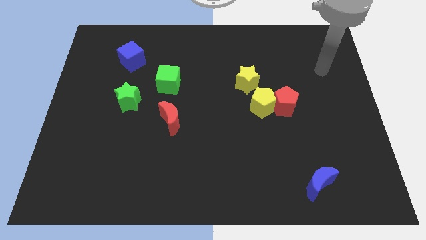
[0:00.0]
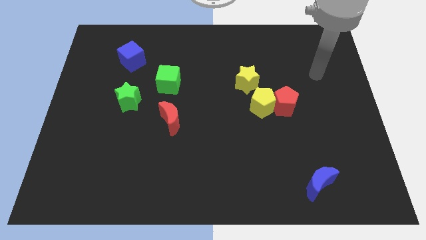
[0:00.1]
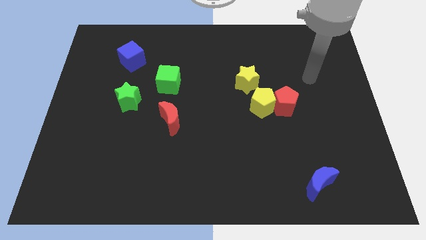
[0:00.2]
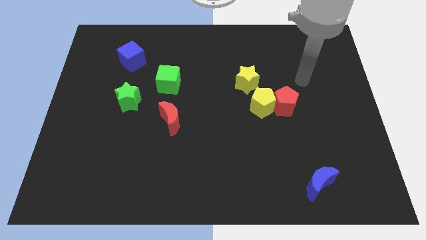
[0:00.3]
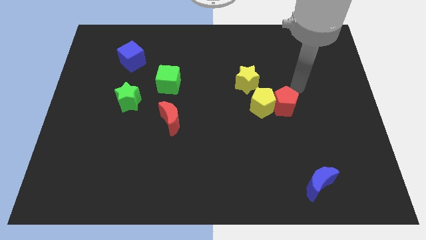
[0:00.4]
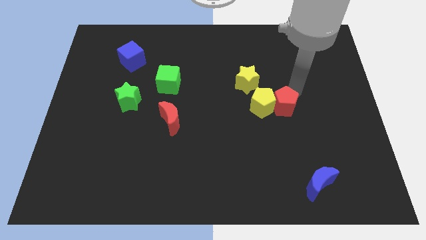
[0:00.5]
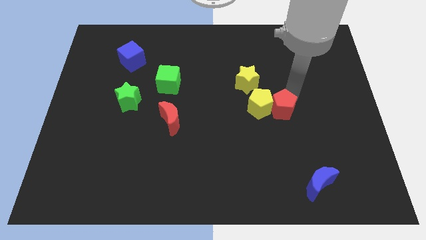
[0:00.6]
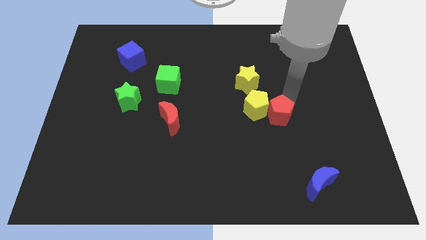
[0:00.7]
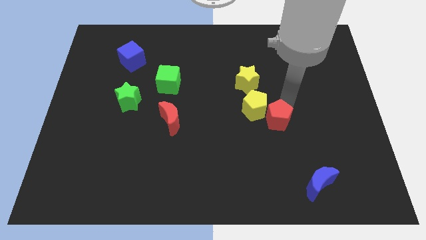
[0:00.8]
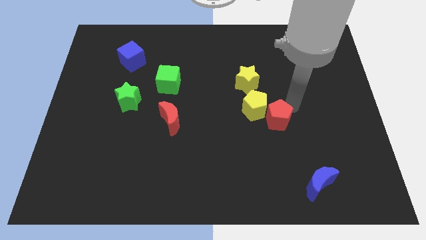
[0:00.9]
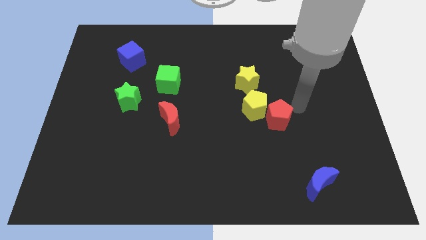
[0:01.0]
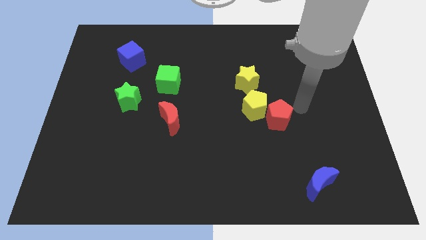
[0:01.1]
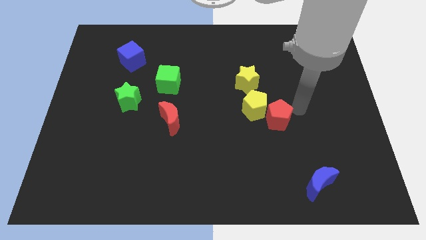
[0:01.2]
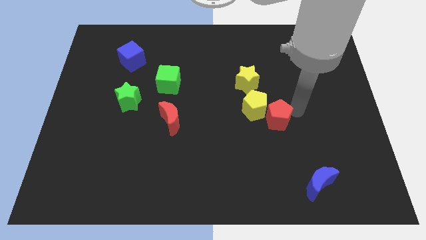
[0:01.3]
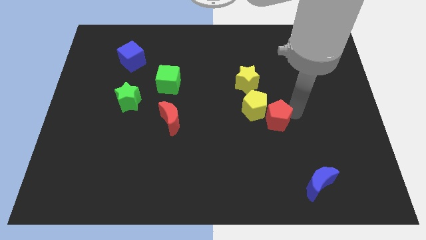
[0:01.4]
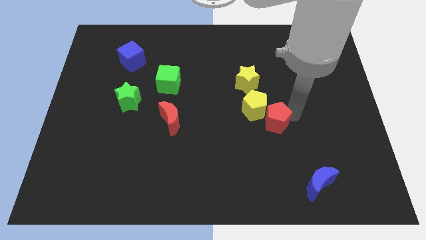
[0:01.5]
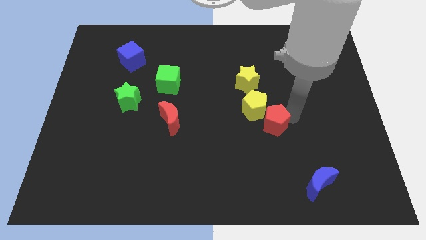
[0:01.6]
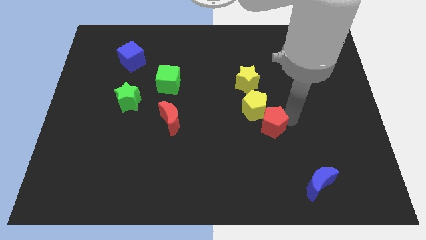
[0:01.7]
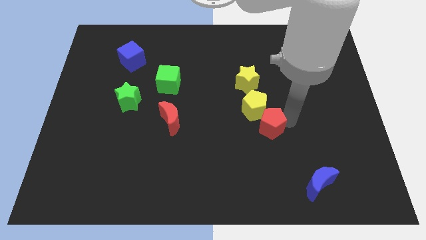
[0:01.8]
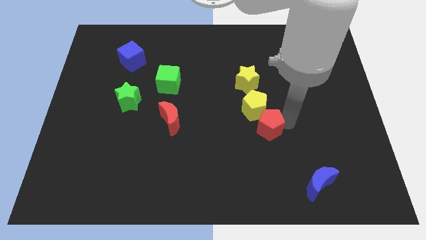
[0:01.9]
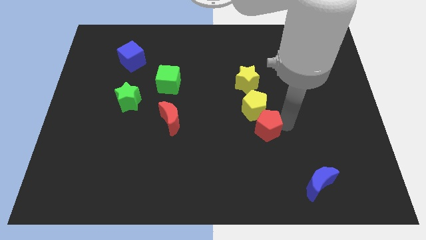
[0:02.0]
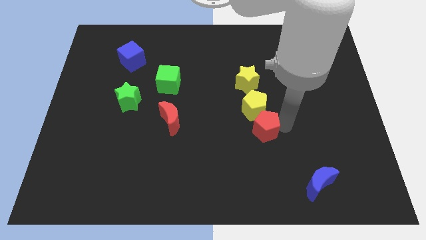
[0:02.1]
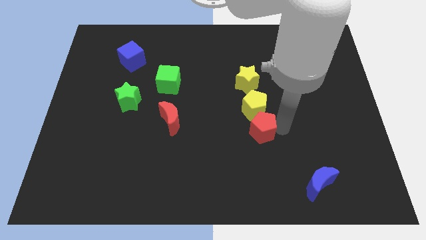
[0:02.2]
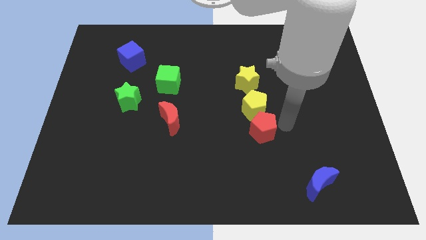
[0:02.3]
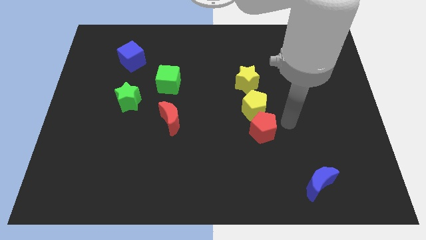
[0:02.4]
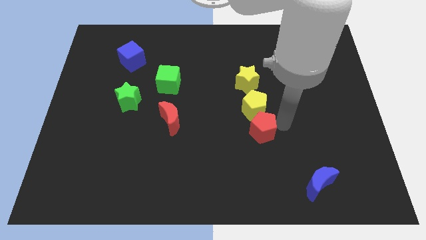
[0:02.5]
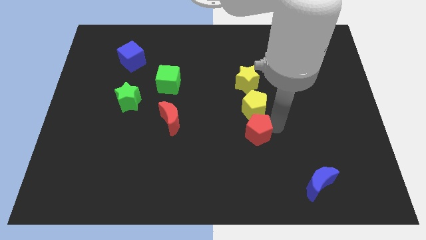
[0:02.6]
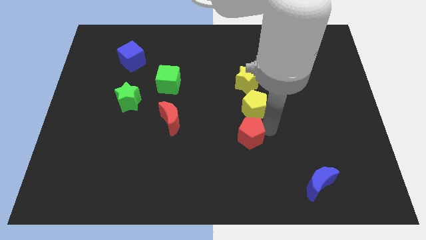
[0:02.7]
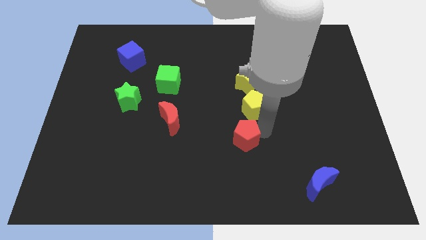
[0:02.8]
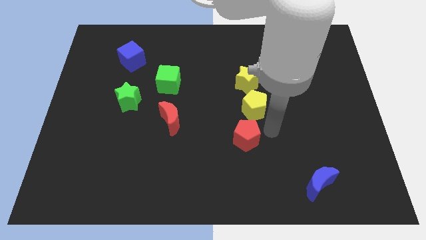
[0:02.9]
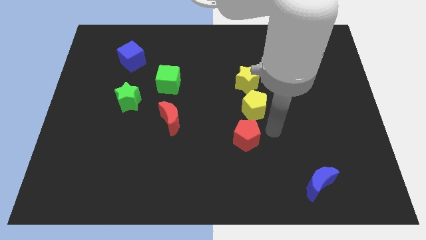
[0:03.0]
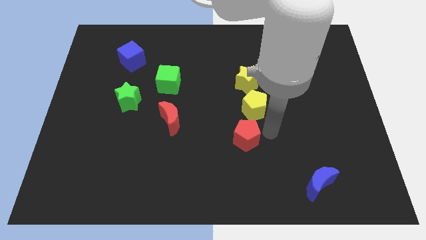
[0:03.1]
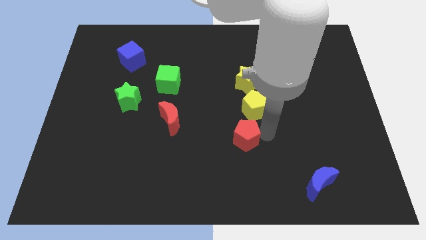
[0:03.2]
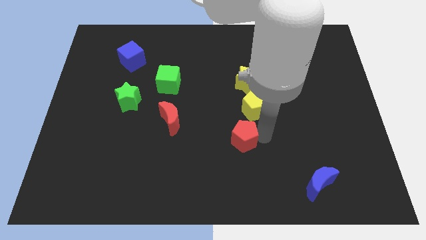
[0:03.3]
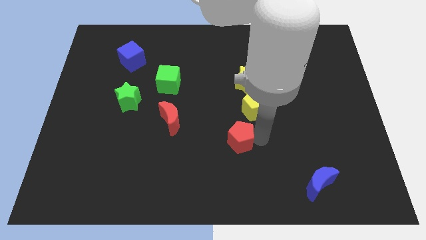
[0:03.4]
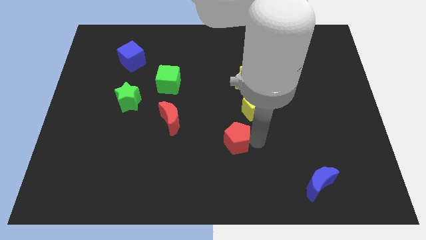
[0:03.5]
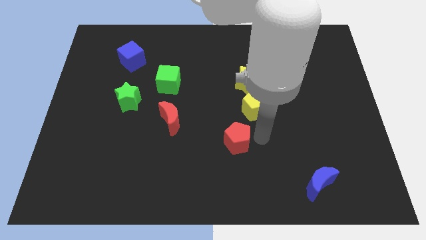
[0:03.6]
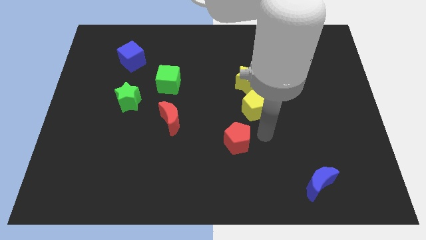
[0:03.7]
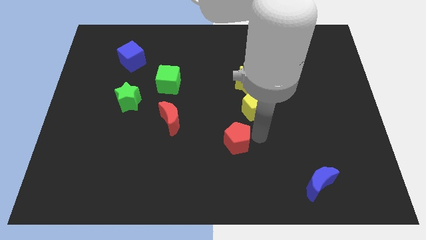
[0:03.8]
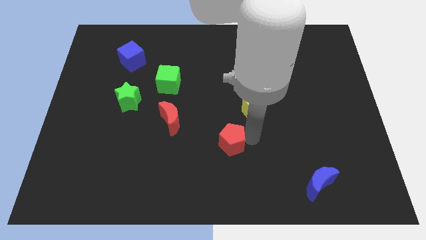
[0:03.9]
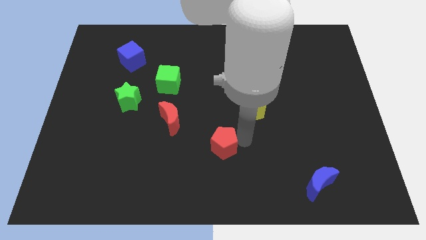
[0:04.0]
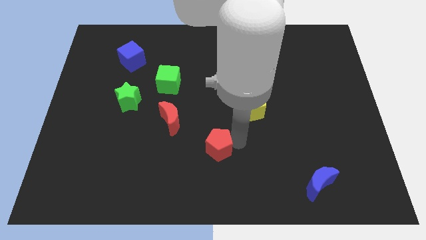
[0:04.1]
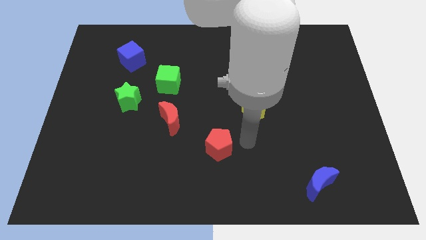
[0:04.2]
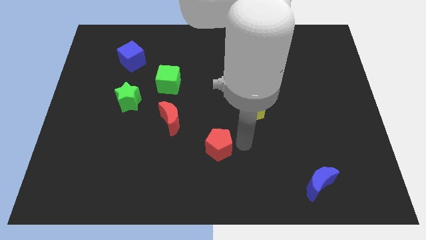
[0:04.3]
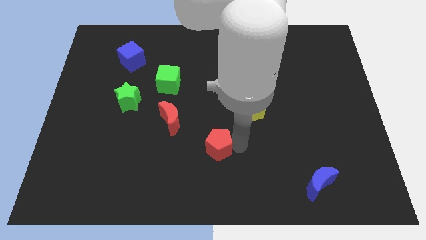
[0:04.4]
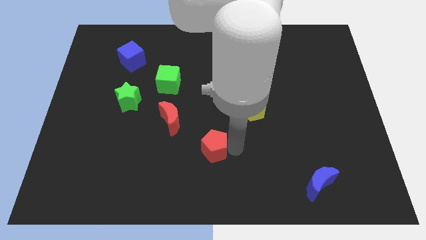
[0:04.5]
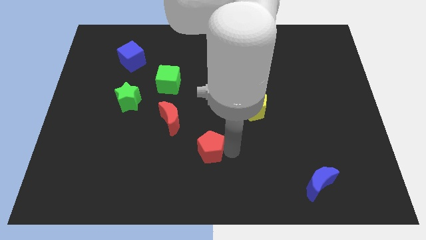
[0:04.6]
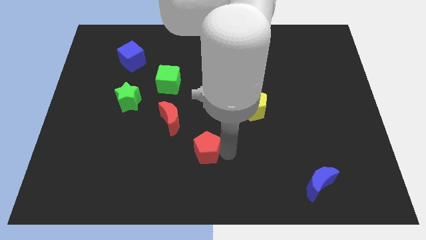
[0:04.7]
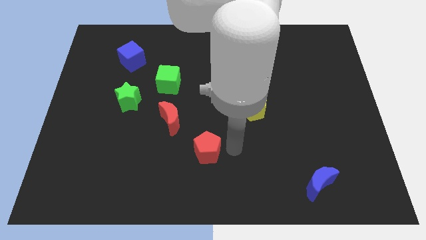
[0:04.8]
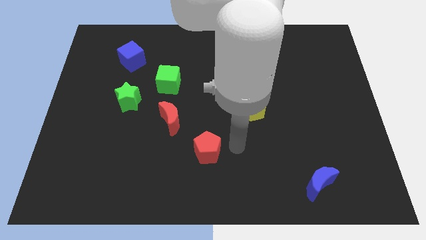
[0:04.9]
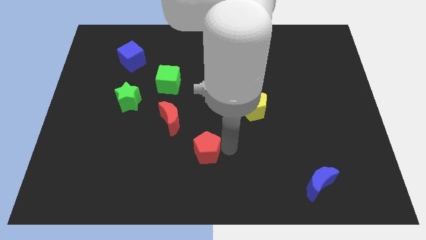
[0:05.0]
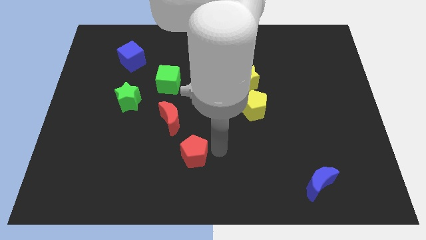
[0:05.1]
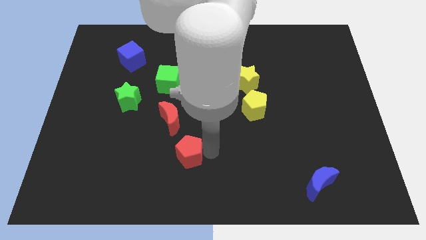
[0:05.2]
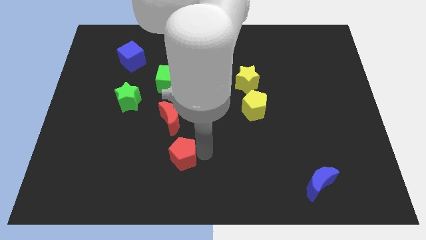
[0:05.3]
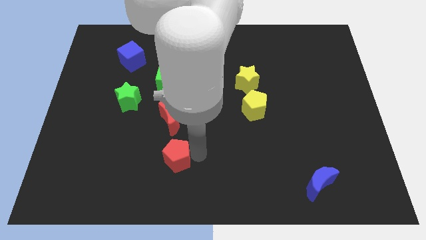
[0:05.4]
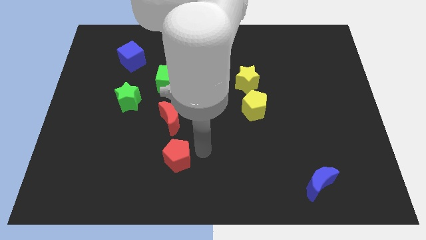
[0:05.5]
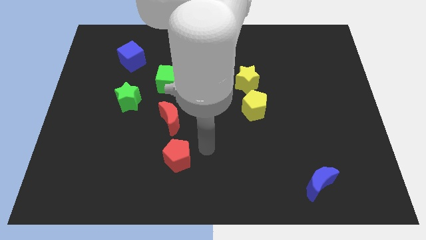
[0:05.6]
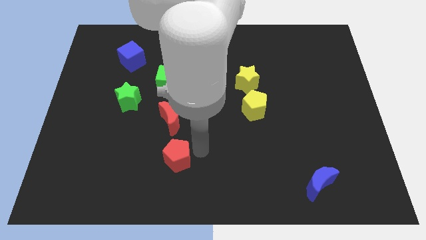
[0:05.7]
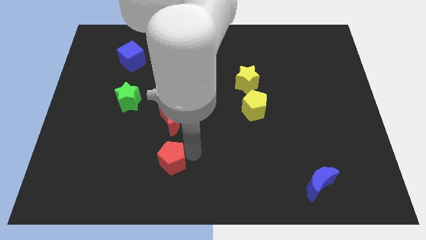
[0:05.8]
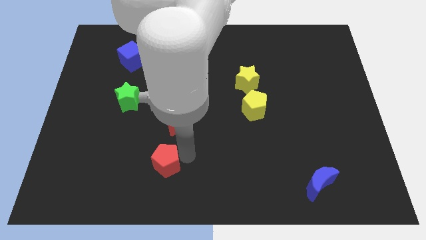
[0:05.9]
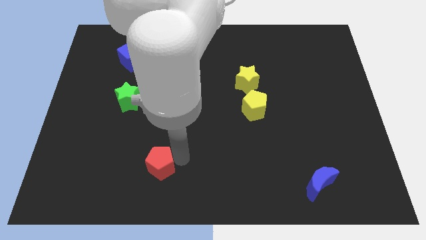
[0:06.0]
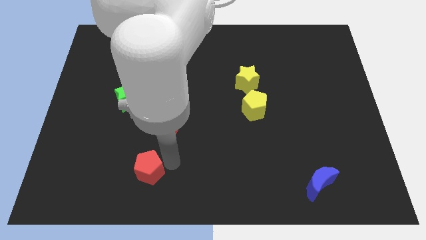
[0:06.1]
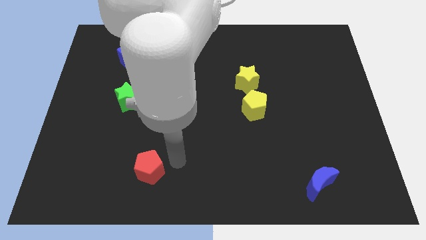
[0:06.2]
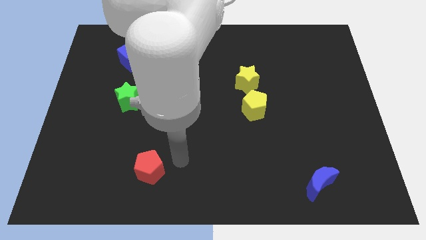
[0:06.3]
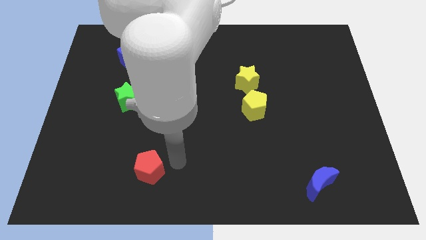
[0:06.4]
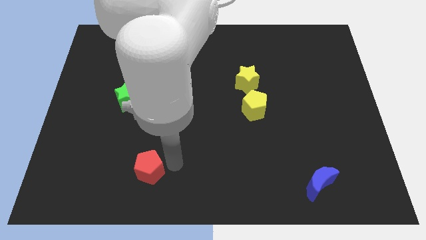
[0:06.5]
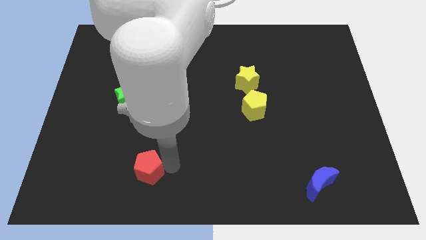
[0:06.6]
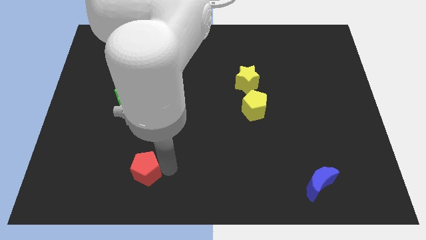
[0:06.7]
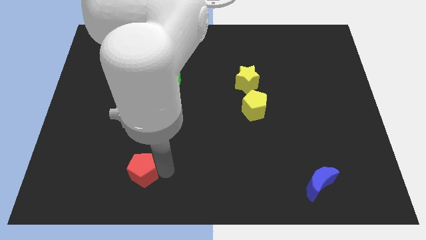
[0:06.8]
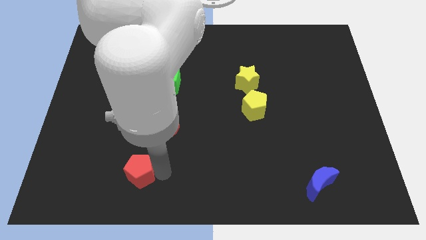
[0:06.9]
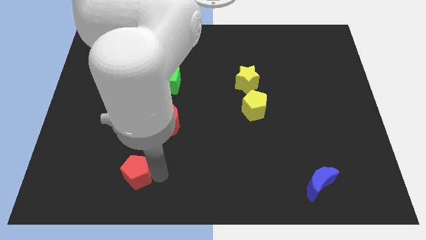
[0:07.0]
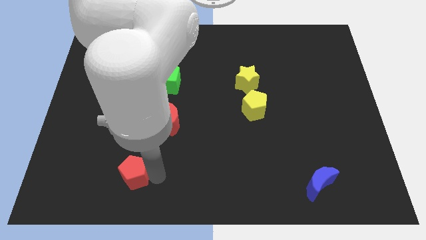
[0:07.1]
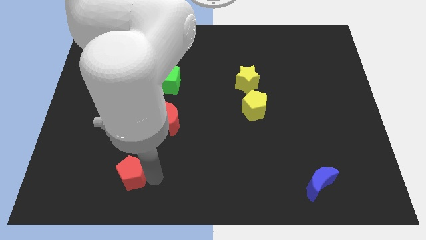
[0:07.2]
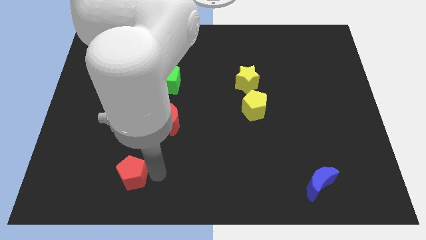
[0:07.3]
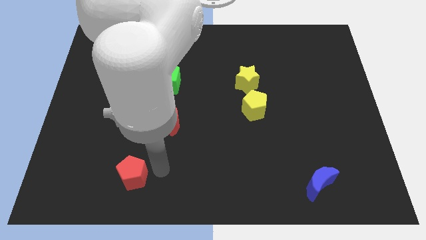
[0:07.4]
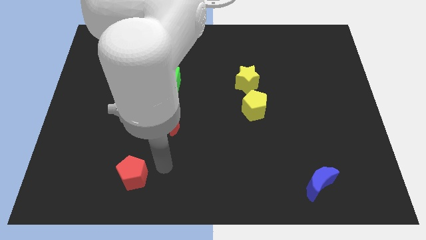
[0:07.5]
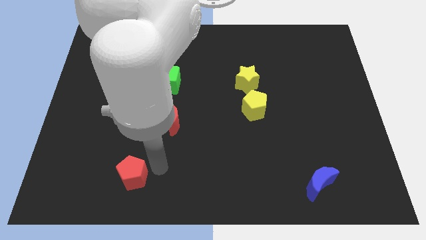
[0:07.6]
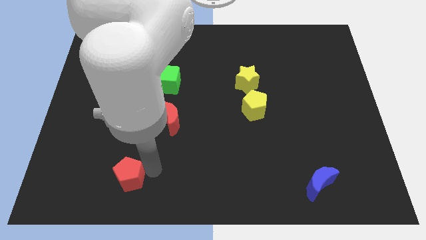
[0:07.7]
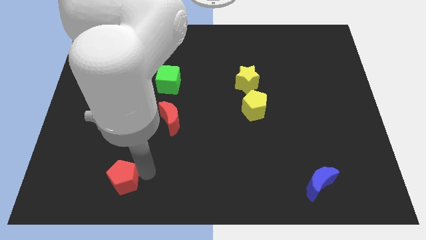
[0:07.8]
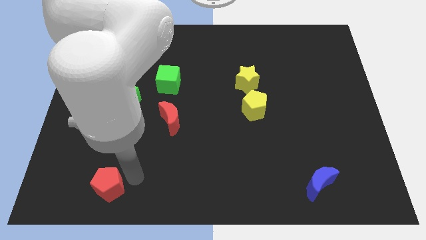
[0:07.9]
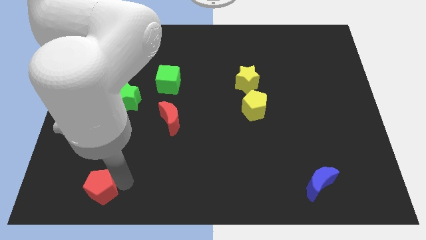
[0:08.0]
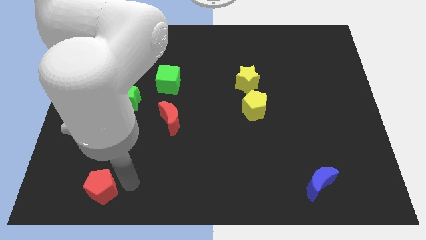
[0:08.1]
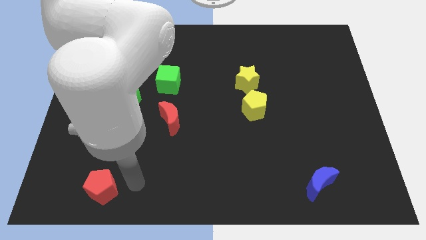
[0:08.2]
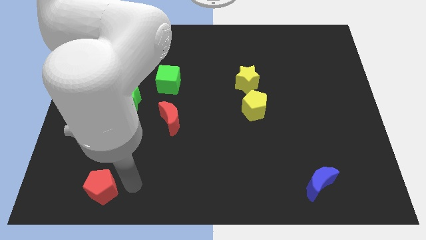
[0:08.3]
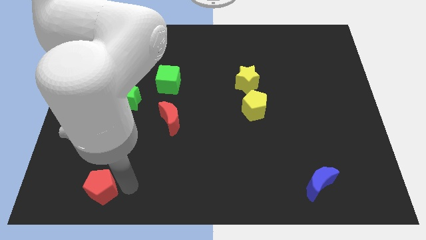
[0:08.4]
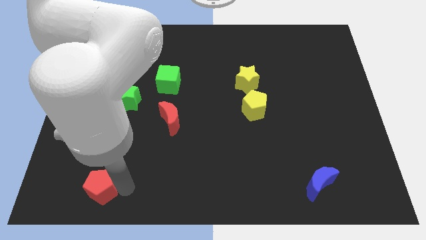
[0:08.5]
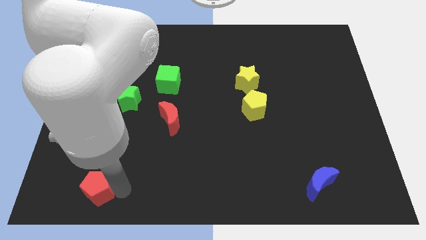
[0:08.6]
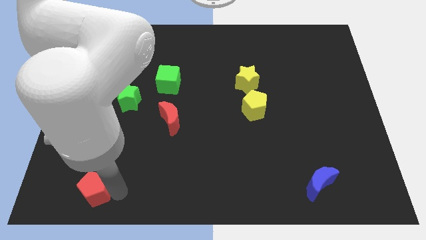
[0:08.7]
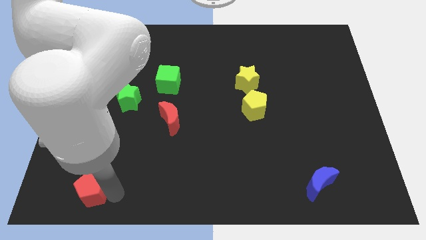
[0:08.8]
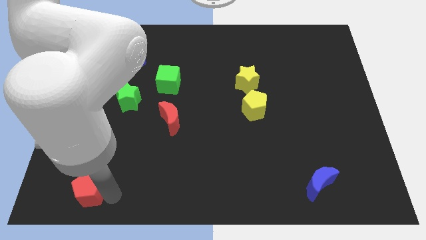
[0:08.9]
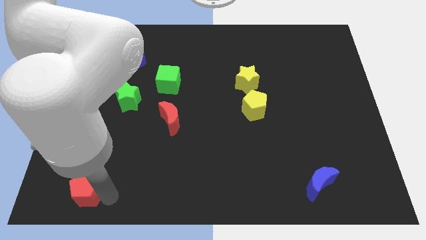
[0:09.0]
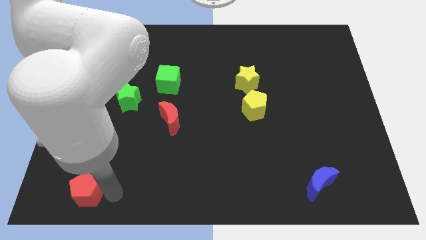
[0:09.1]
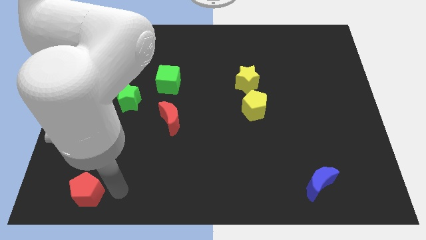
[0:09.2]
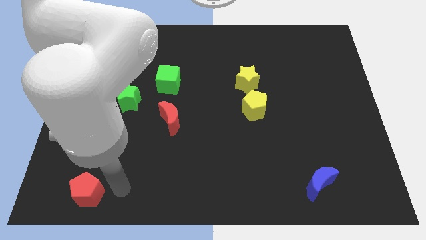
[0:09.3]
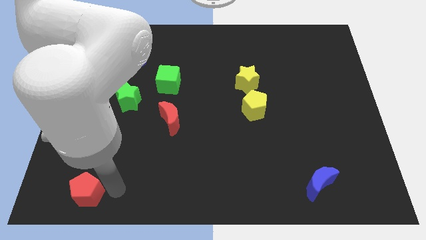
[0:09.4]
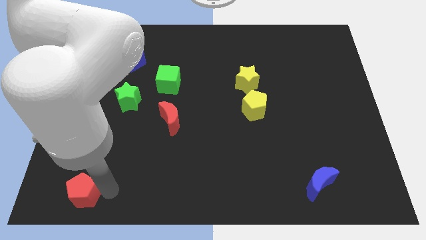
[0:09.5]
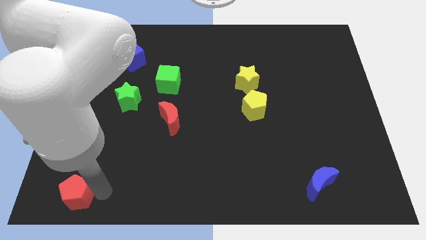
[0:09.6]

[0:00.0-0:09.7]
push the red pentagon to the bottom left of the board
